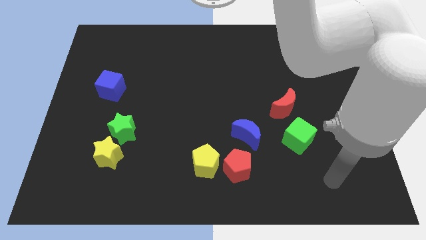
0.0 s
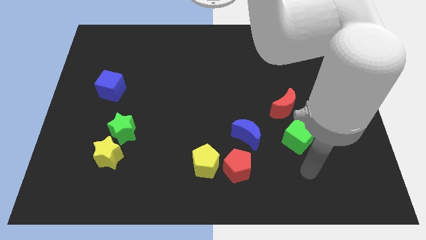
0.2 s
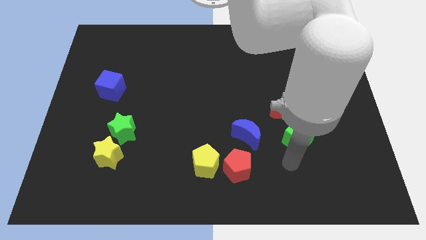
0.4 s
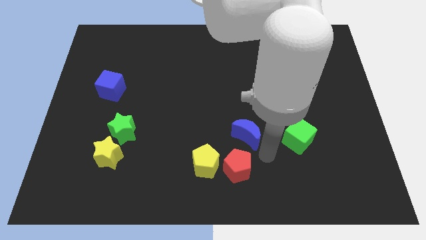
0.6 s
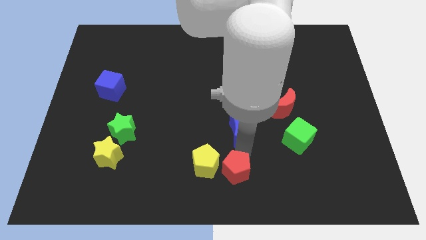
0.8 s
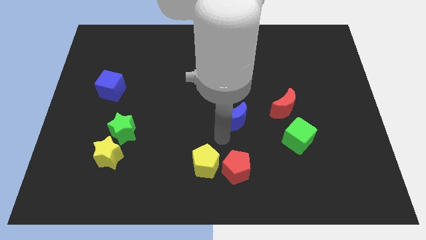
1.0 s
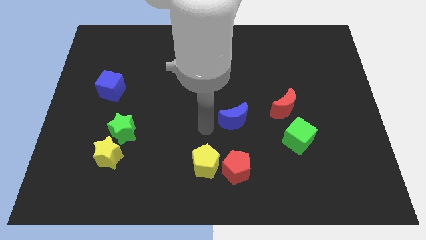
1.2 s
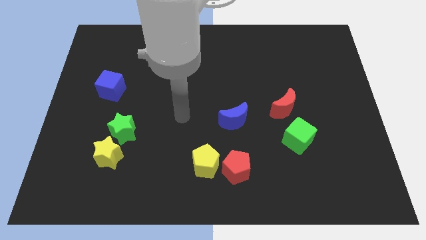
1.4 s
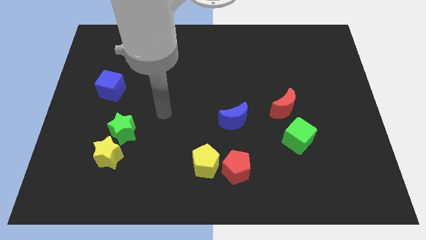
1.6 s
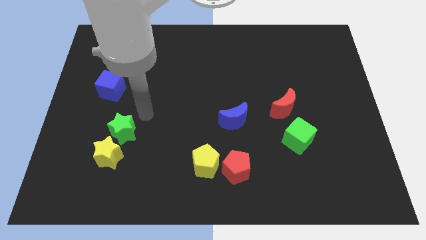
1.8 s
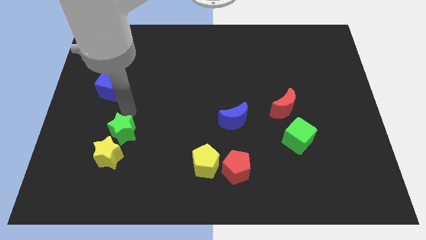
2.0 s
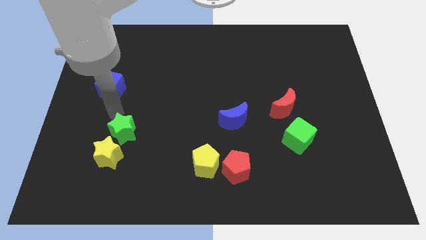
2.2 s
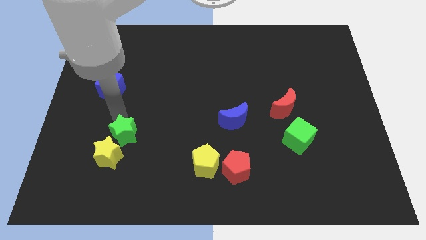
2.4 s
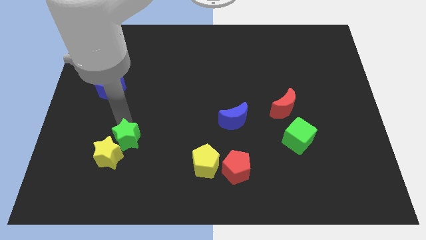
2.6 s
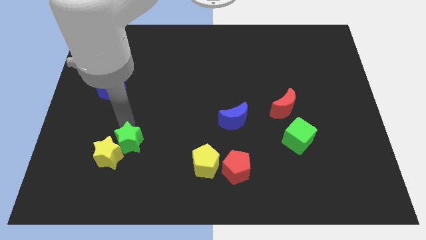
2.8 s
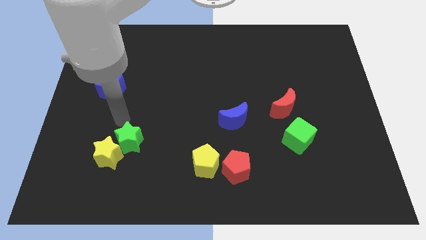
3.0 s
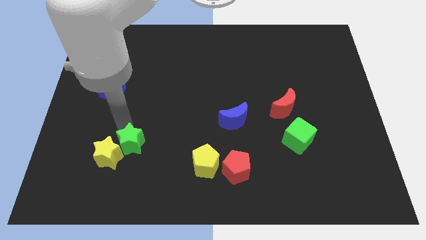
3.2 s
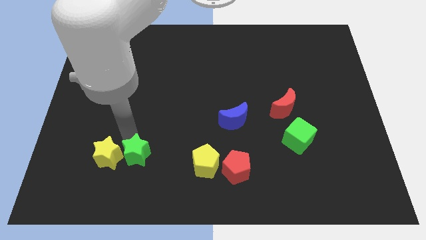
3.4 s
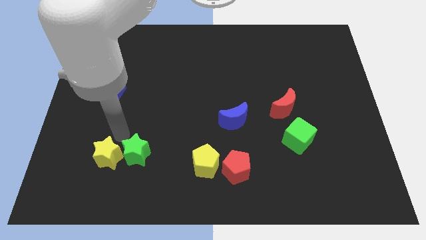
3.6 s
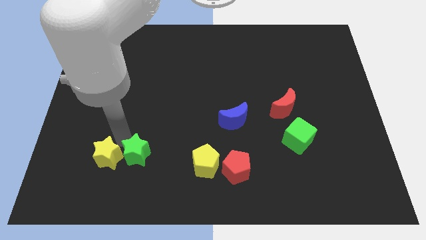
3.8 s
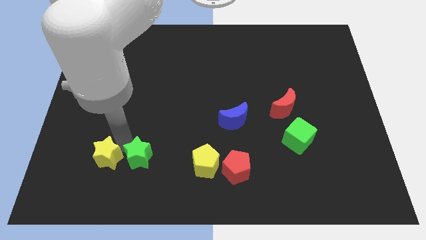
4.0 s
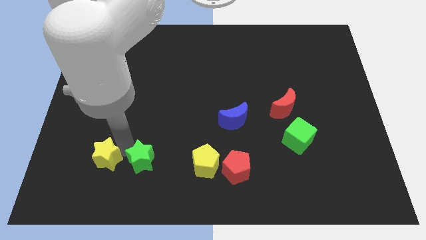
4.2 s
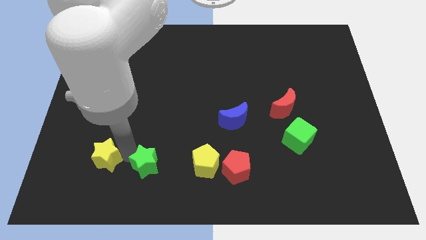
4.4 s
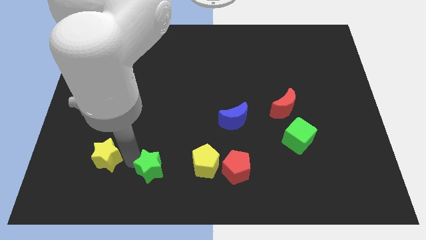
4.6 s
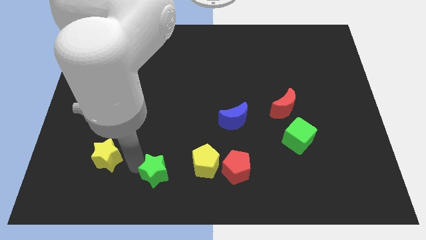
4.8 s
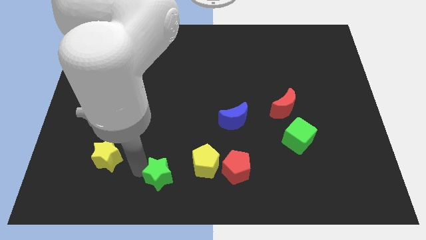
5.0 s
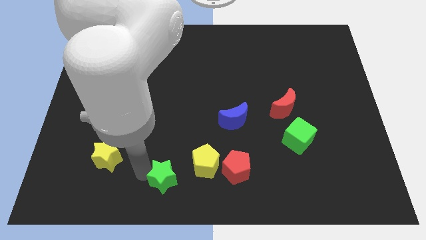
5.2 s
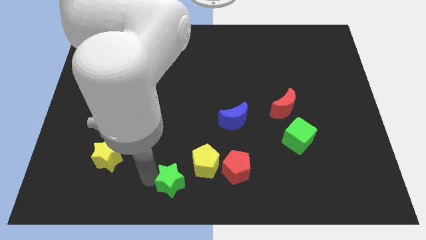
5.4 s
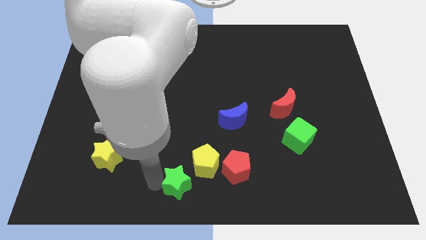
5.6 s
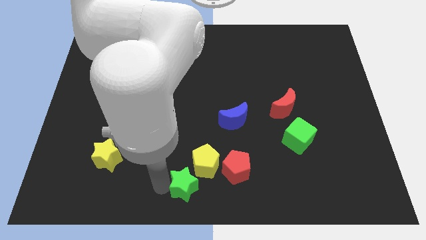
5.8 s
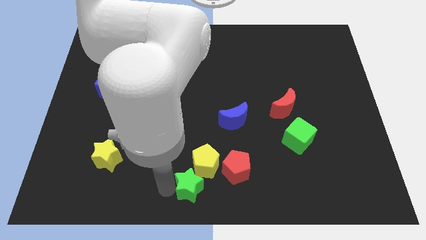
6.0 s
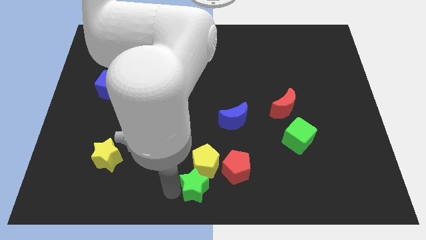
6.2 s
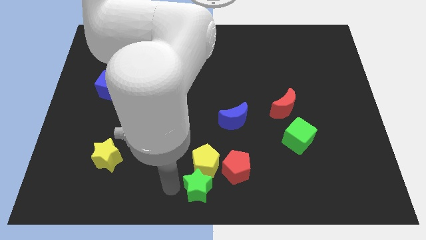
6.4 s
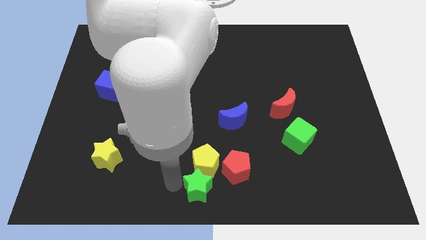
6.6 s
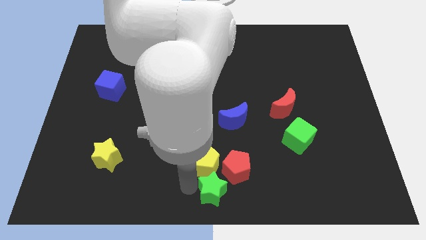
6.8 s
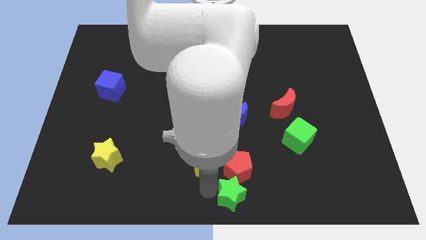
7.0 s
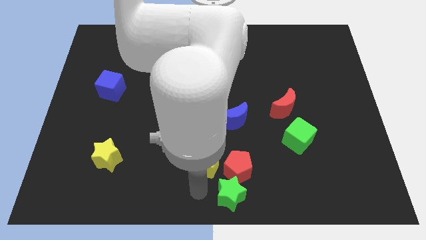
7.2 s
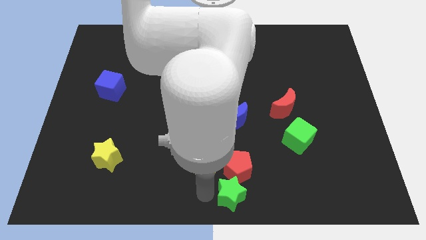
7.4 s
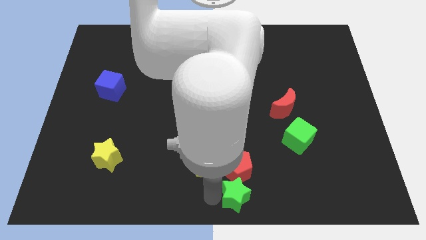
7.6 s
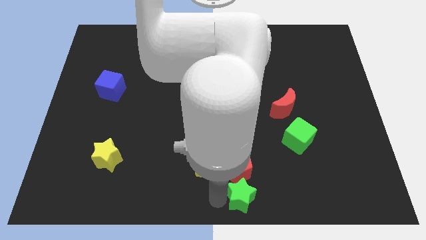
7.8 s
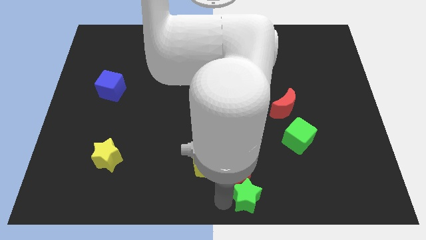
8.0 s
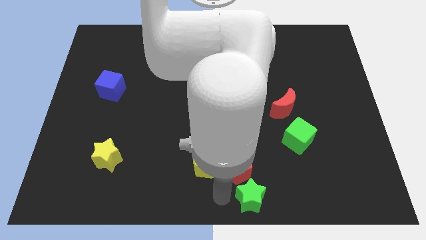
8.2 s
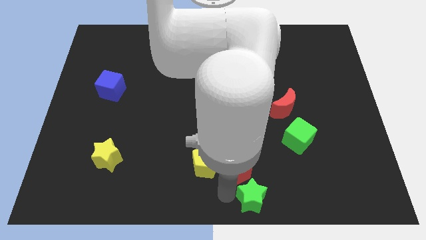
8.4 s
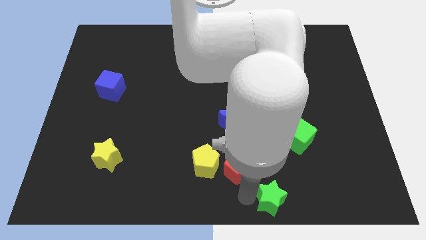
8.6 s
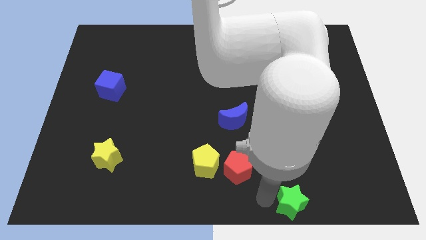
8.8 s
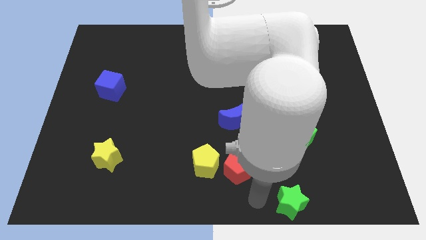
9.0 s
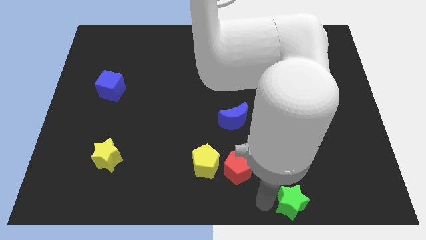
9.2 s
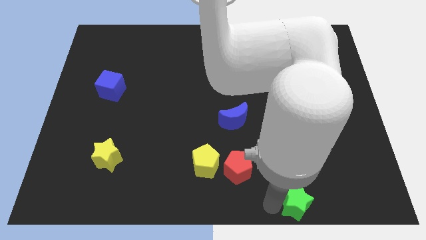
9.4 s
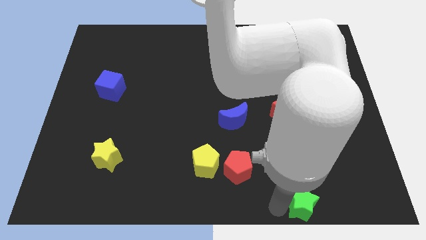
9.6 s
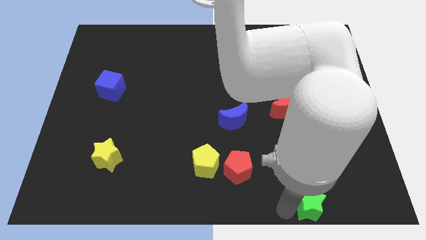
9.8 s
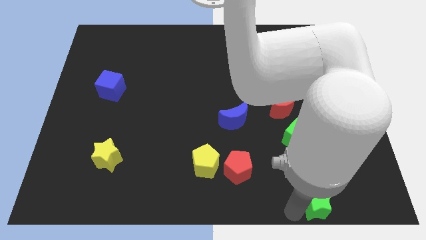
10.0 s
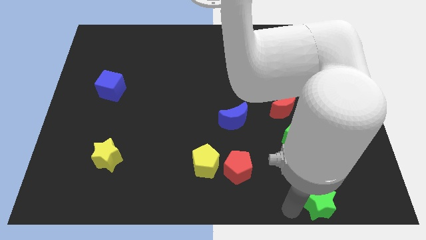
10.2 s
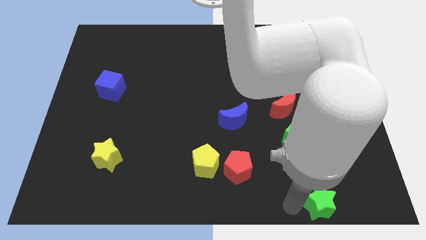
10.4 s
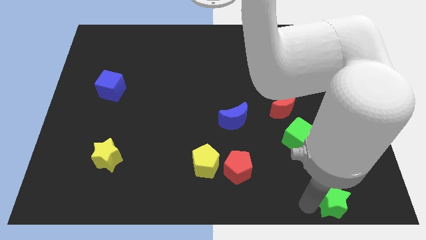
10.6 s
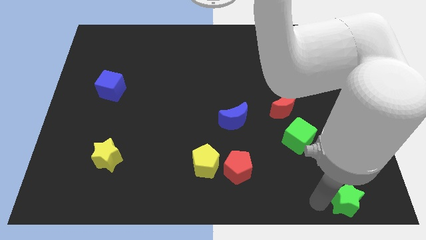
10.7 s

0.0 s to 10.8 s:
move the green star to the bottom right

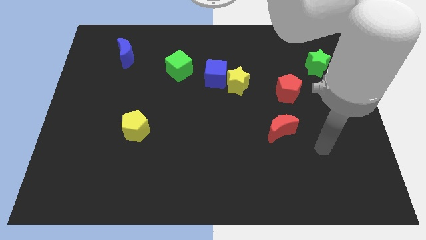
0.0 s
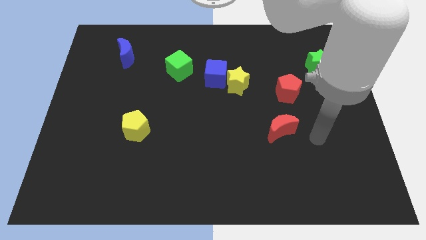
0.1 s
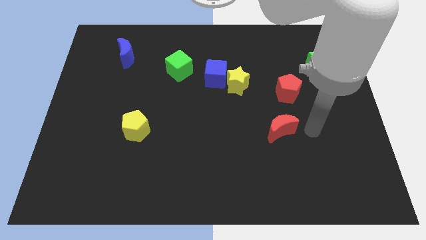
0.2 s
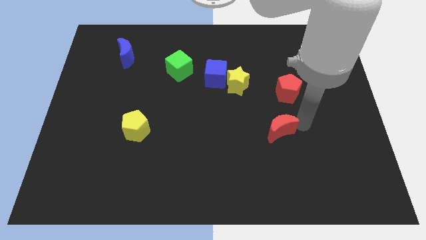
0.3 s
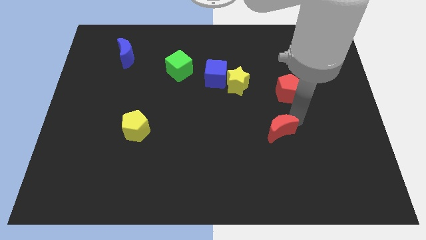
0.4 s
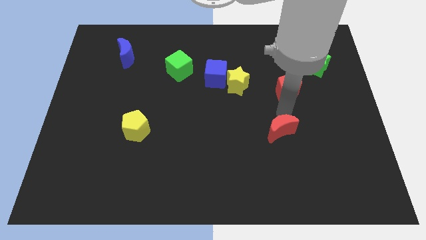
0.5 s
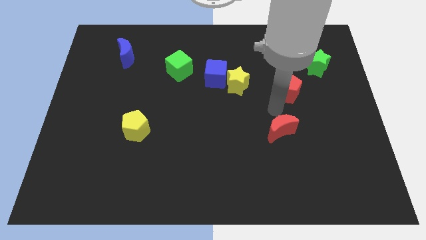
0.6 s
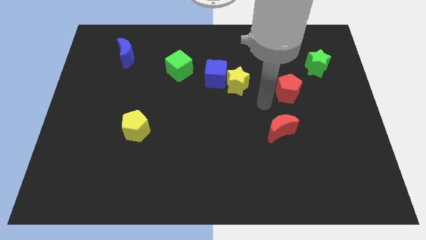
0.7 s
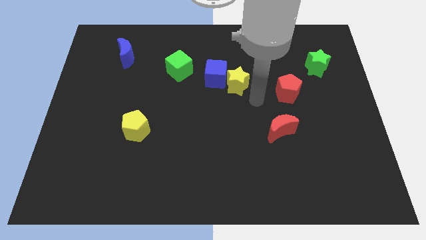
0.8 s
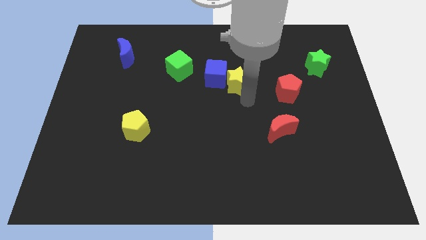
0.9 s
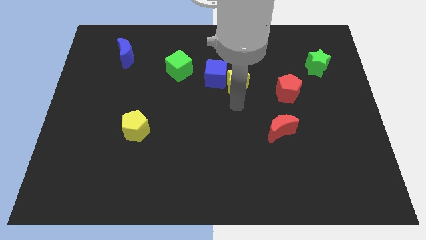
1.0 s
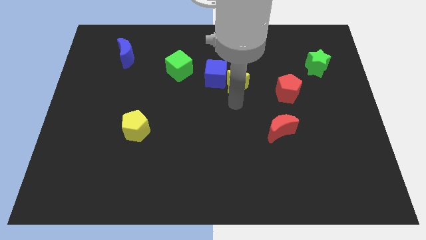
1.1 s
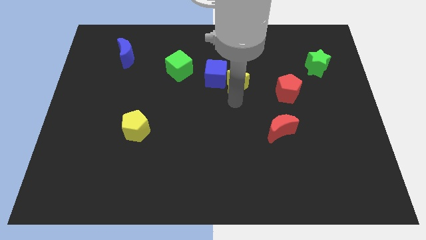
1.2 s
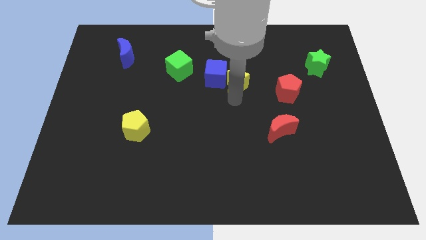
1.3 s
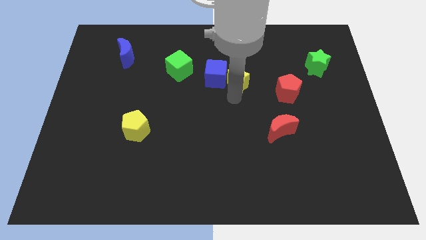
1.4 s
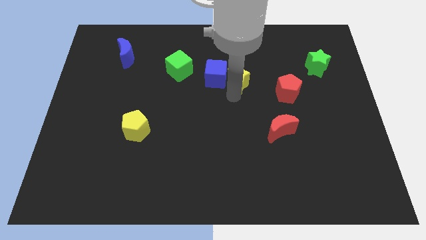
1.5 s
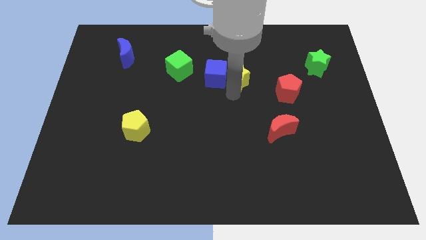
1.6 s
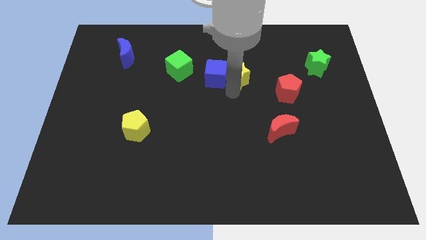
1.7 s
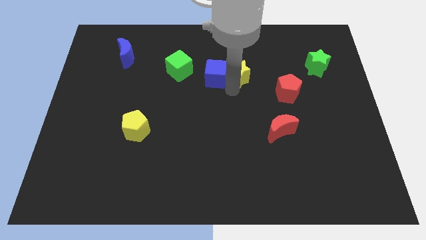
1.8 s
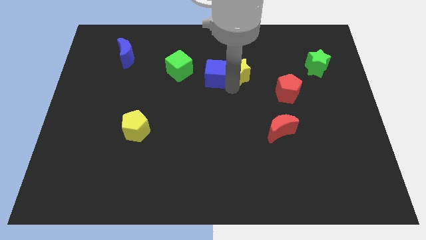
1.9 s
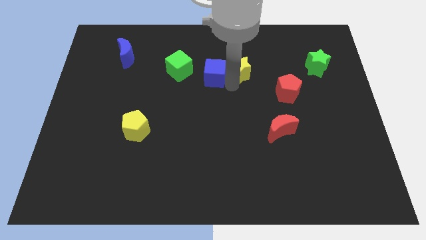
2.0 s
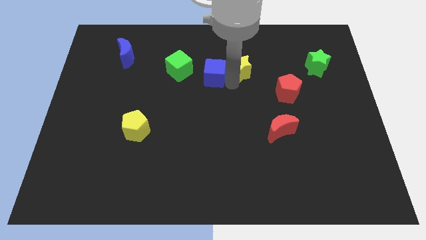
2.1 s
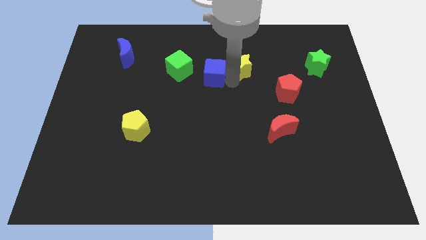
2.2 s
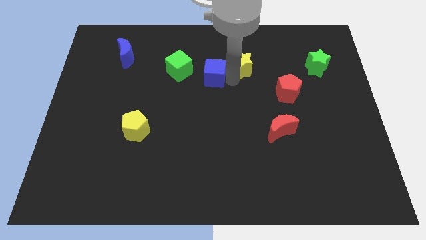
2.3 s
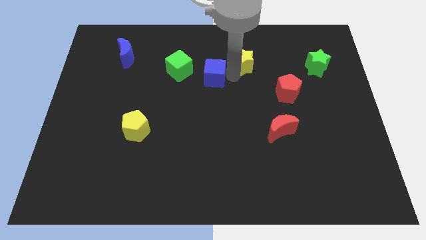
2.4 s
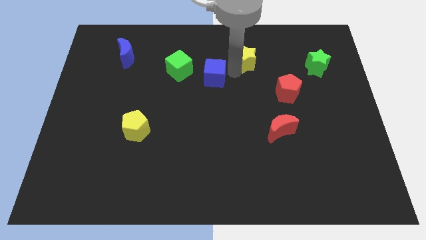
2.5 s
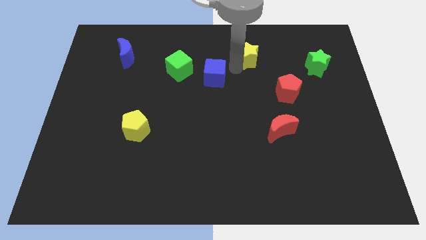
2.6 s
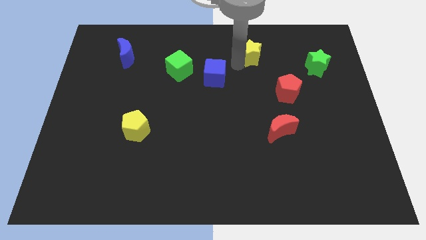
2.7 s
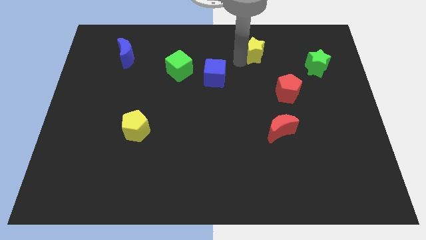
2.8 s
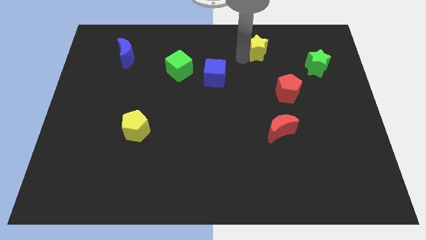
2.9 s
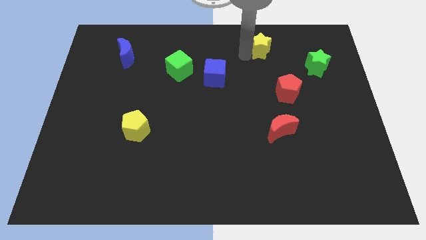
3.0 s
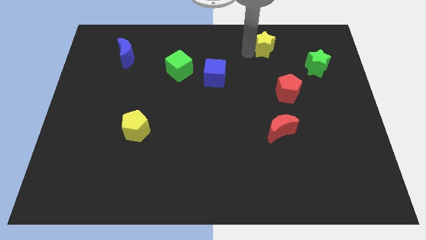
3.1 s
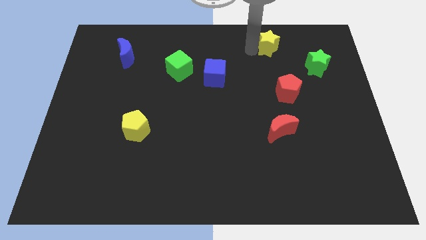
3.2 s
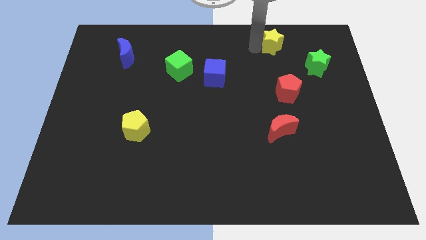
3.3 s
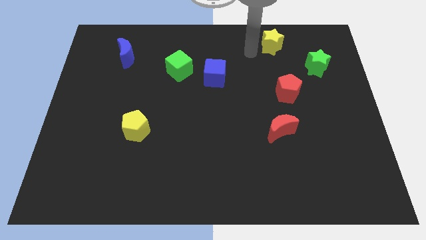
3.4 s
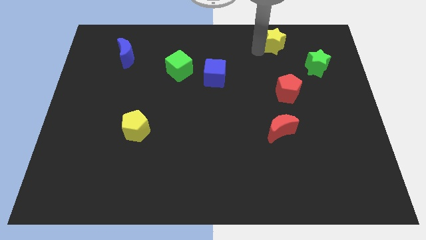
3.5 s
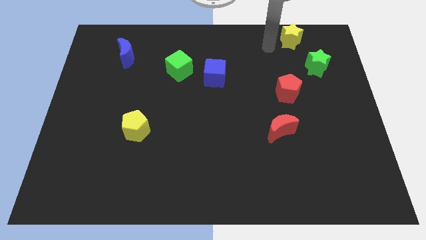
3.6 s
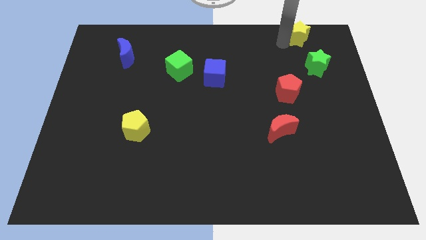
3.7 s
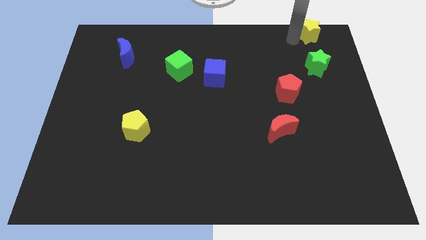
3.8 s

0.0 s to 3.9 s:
slide the yellow star to the upper right corner
